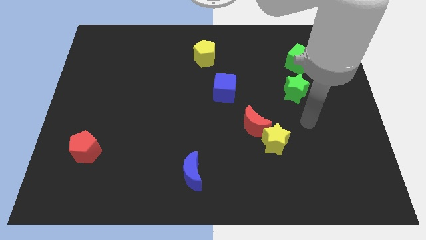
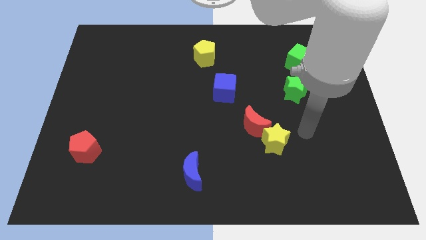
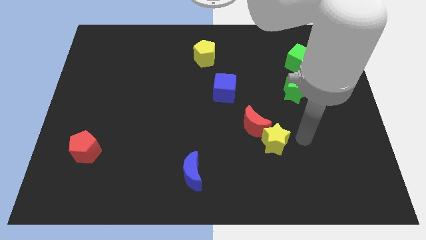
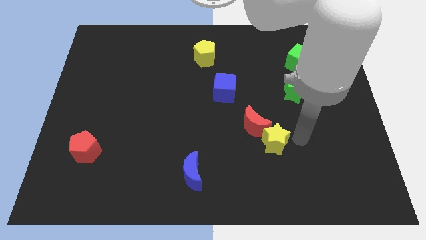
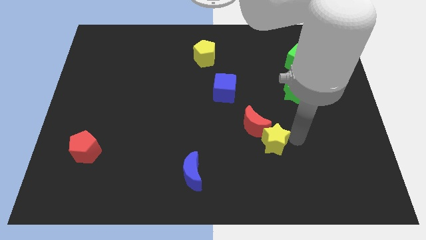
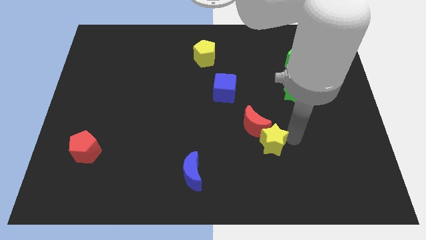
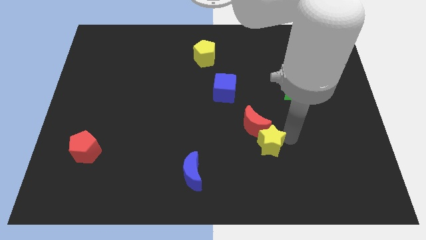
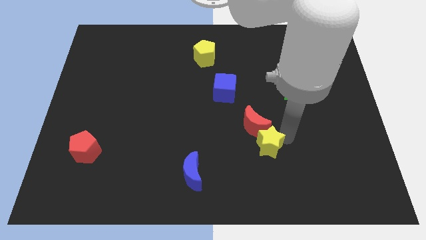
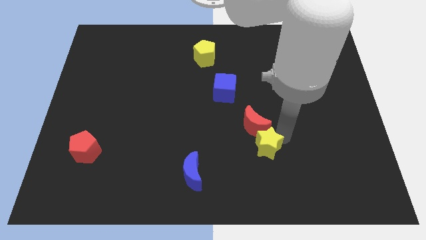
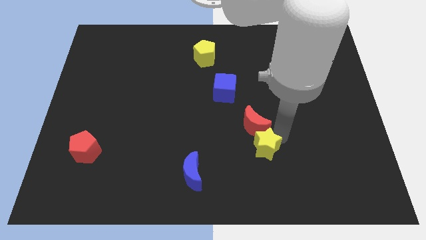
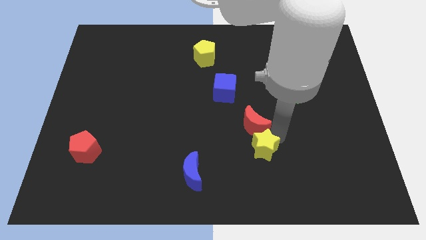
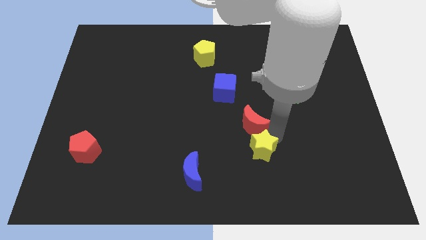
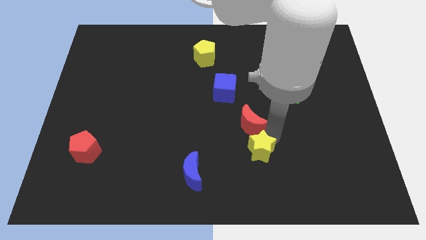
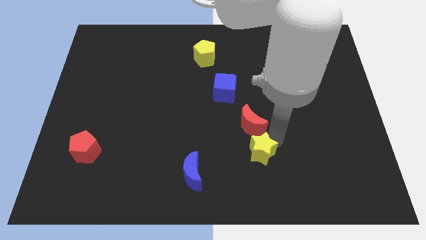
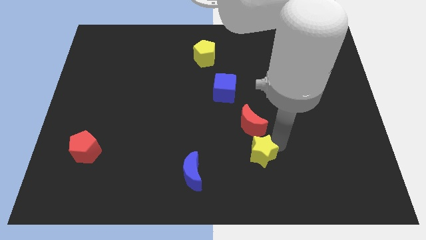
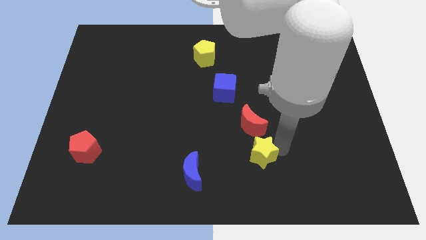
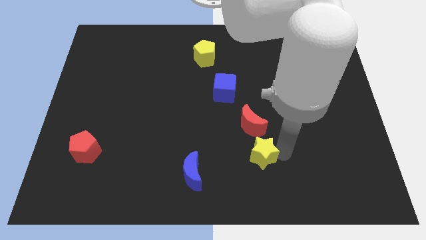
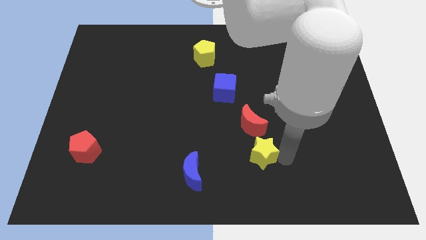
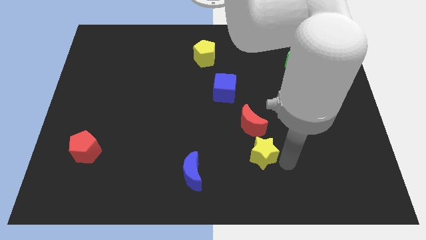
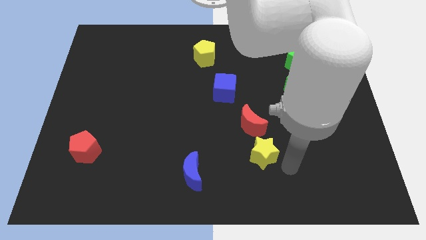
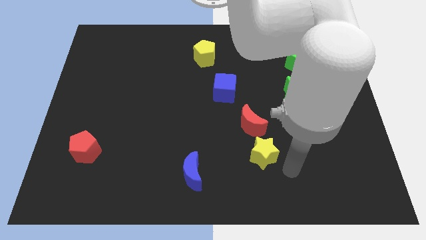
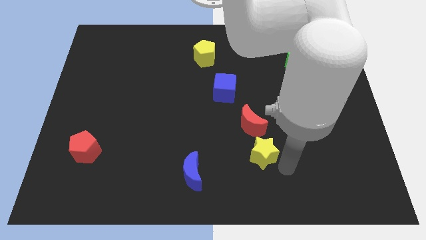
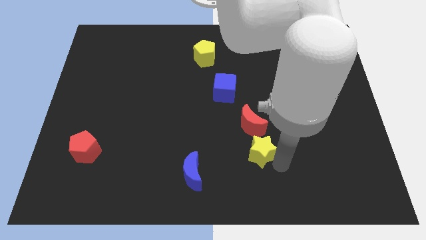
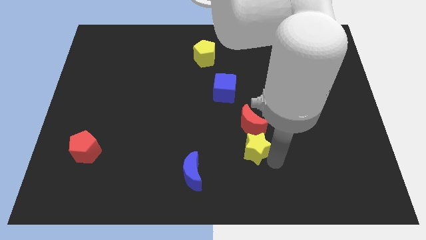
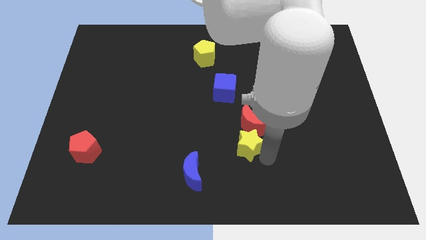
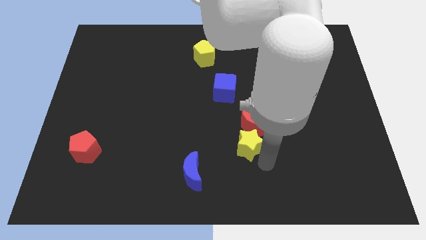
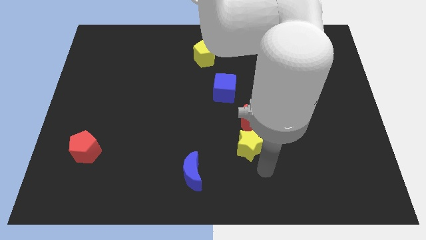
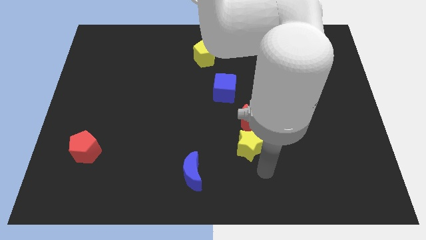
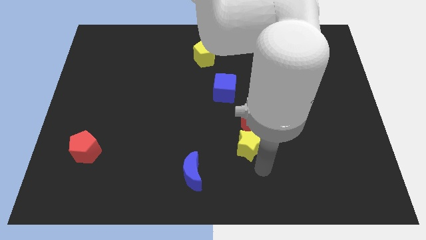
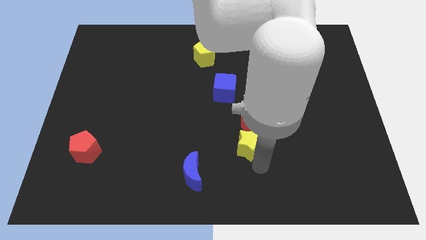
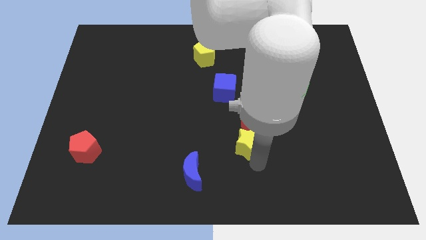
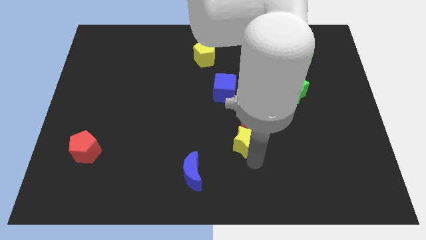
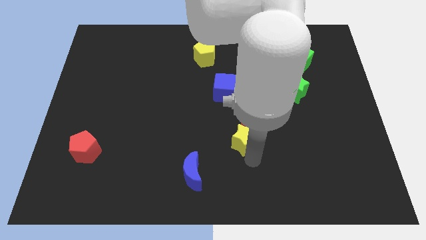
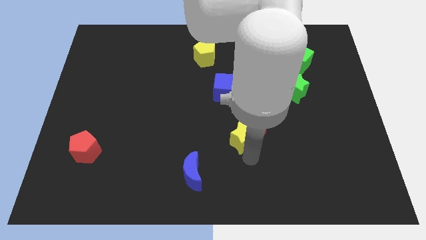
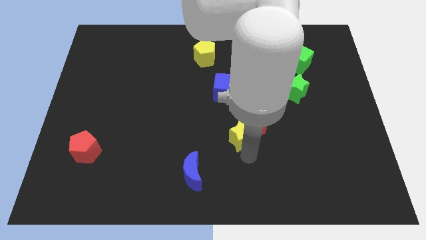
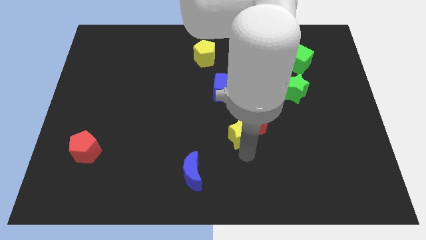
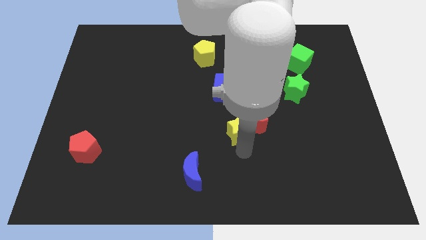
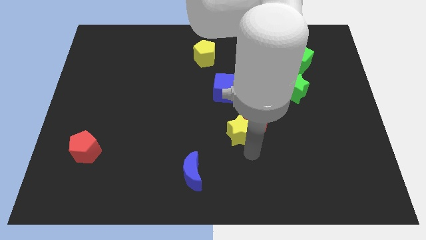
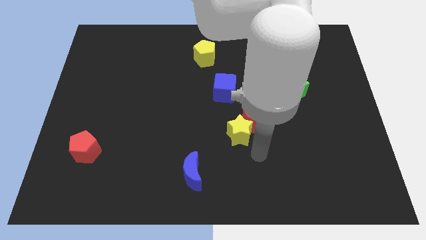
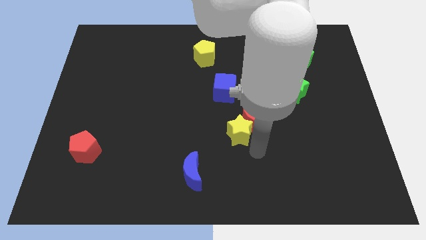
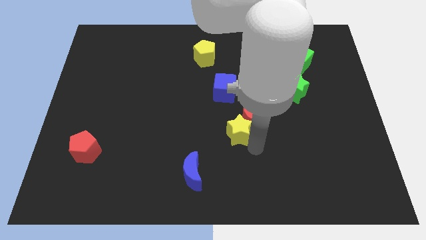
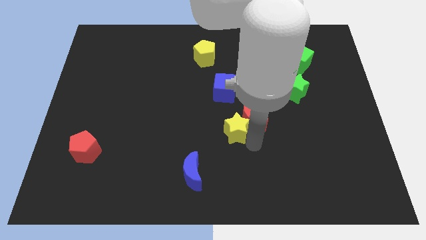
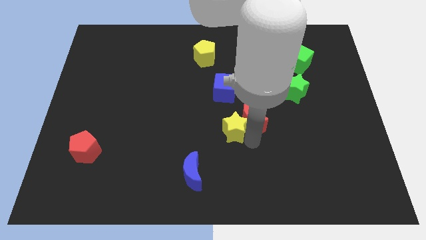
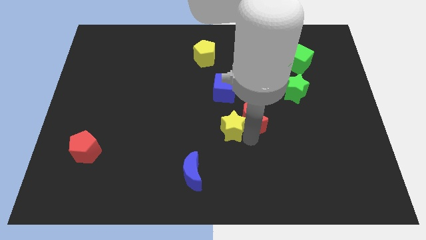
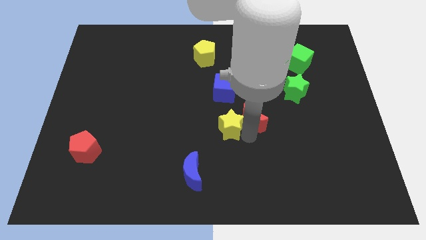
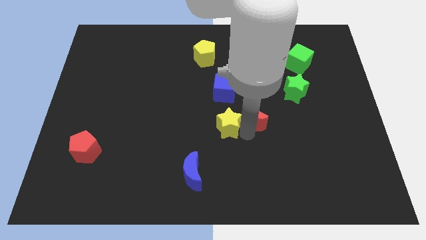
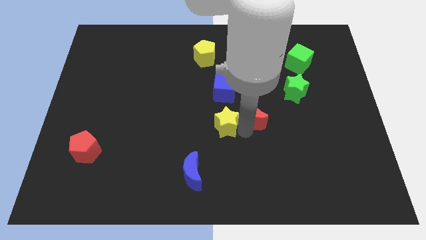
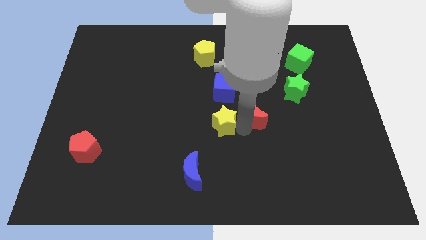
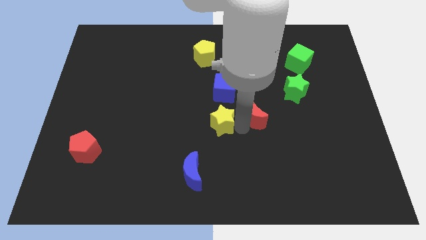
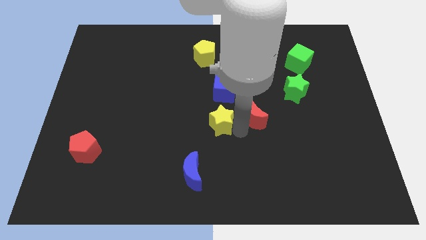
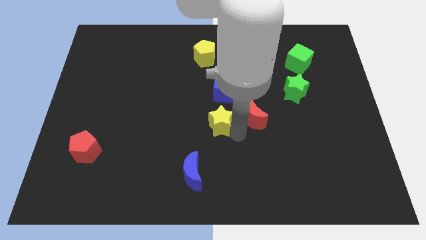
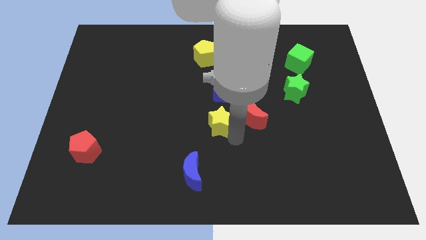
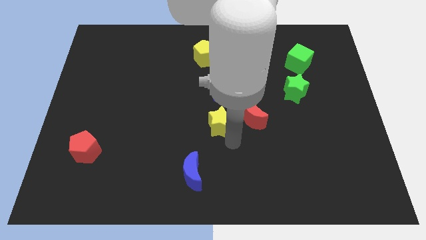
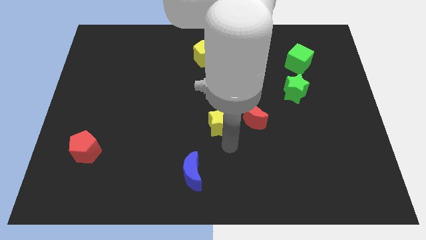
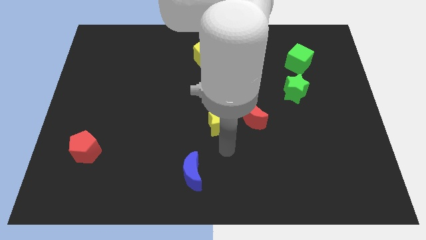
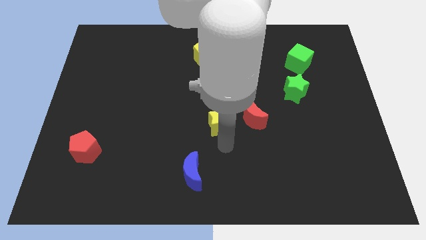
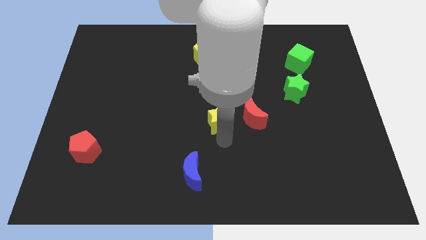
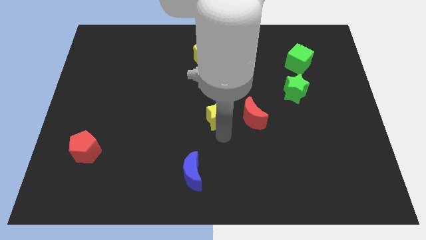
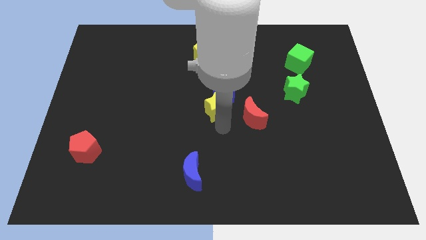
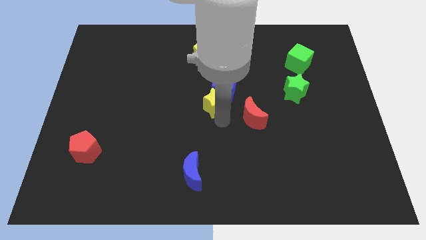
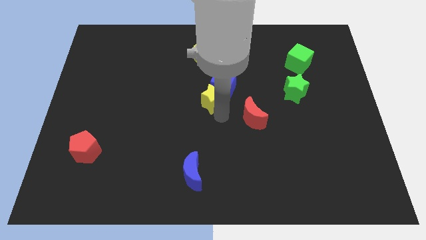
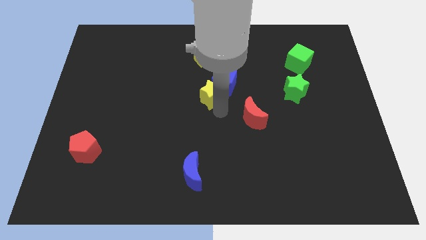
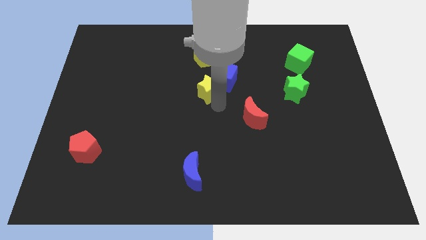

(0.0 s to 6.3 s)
push the yellow star upwards and to the left

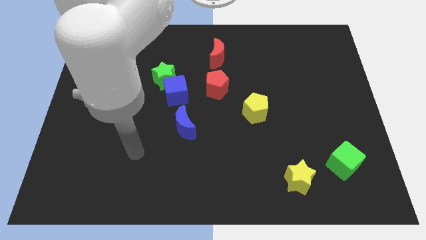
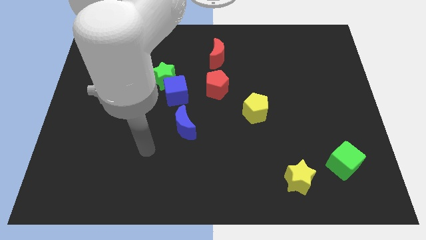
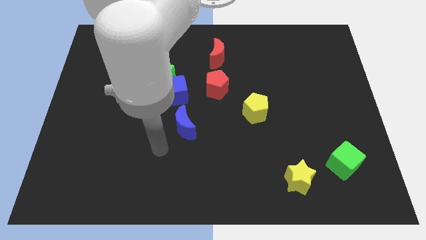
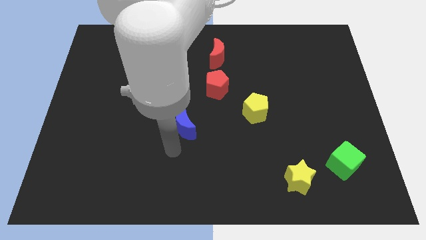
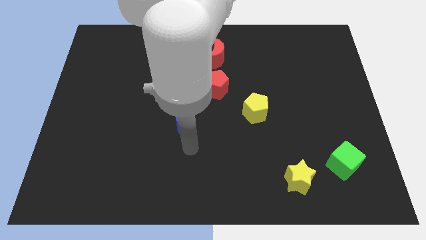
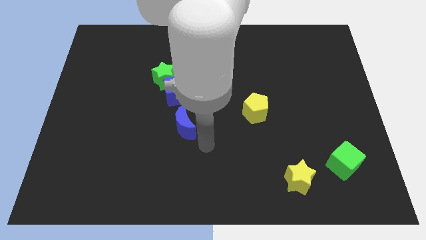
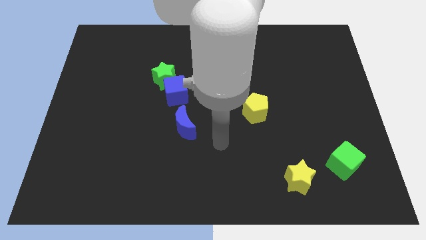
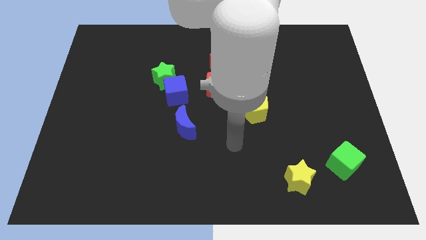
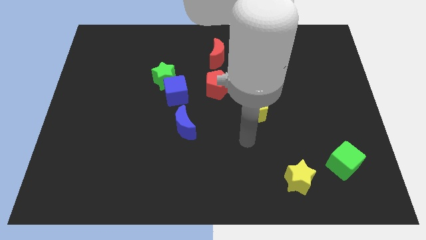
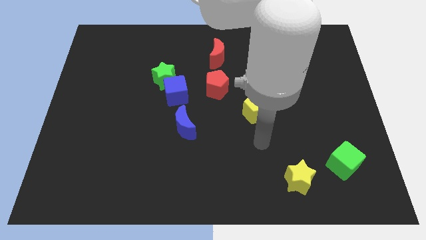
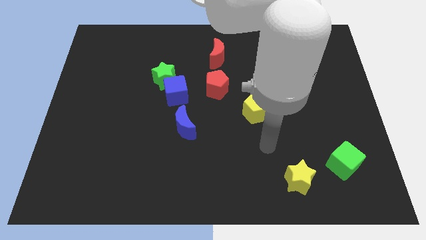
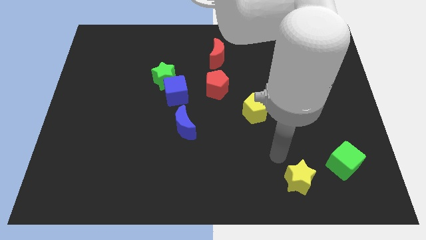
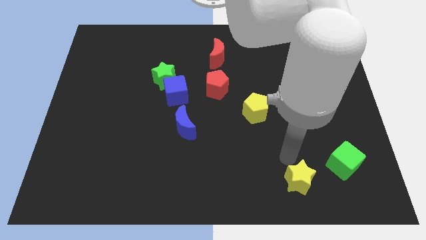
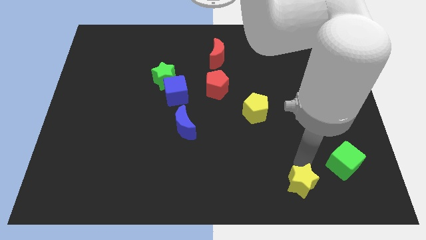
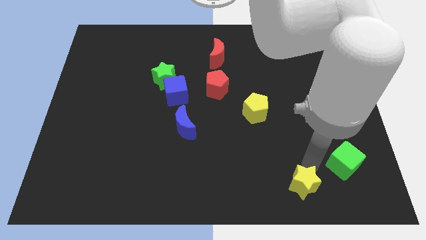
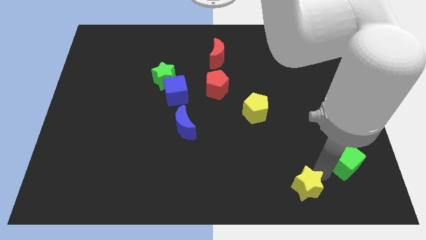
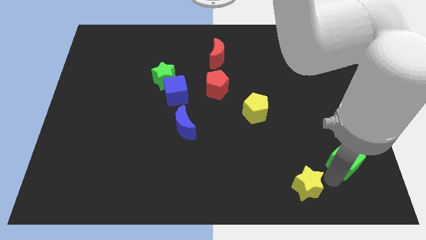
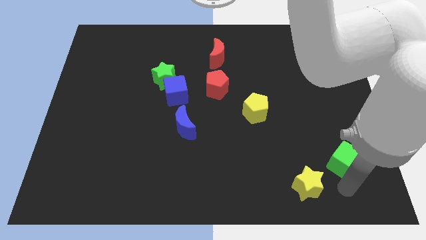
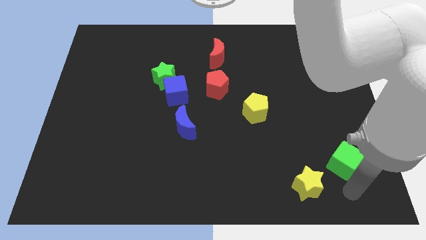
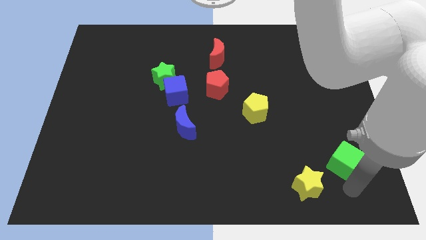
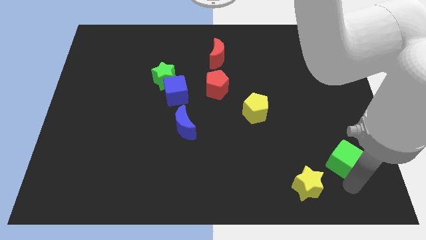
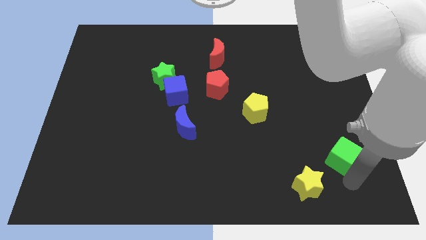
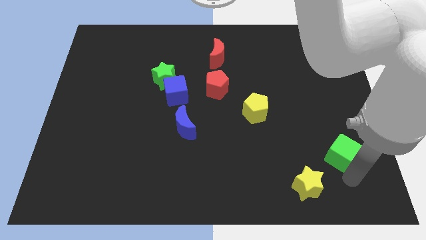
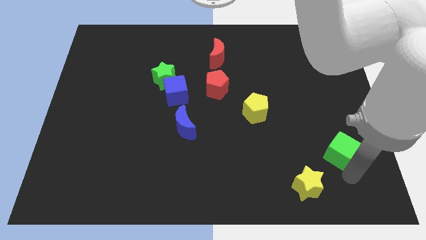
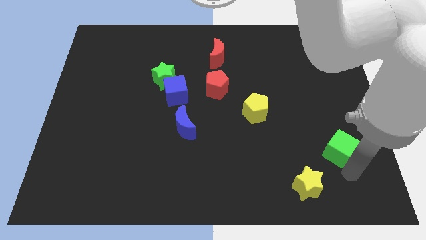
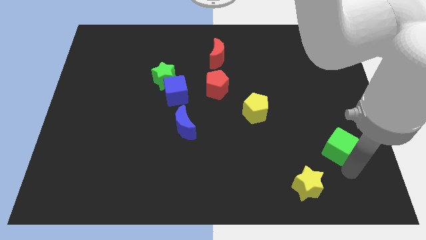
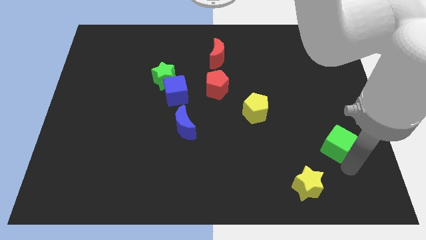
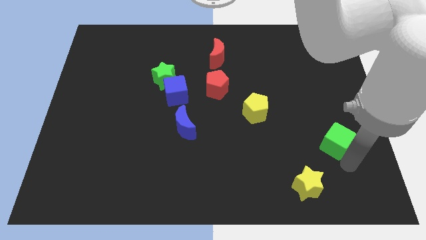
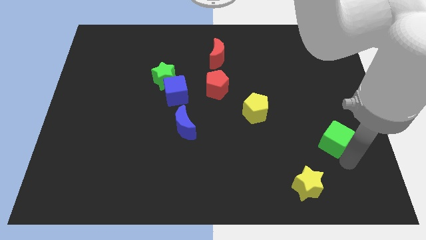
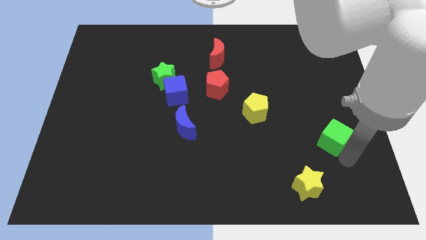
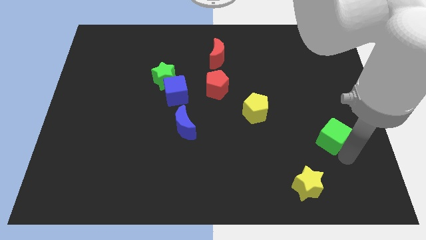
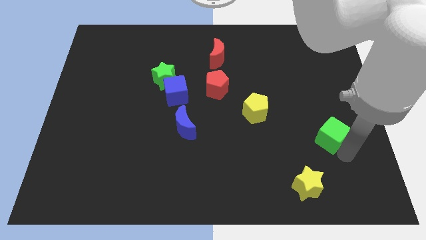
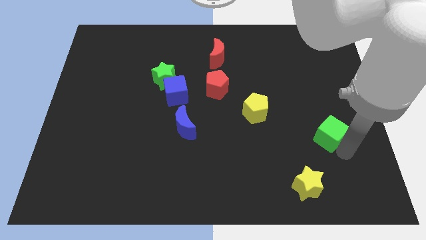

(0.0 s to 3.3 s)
slide the green cube slightly up
